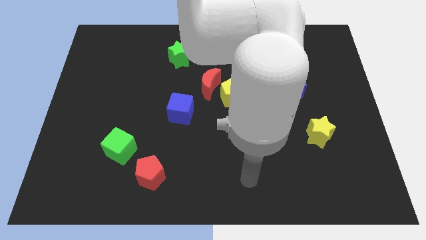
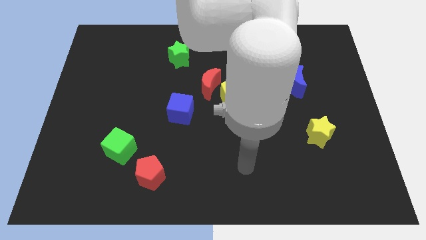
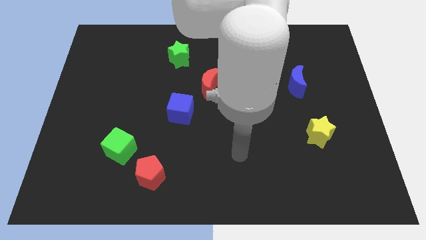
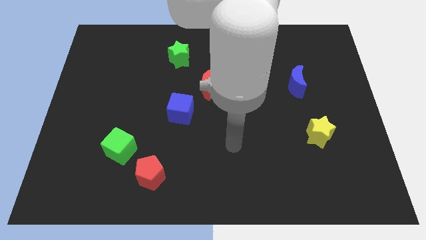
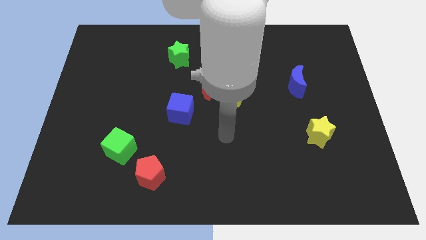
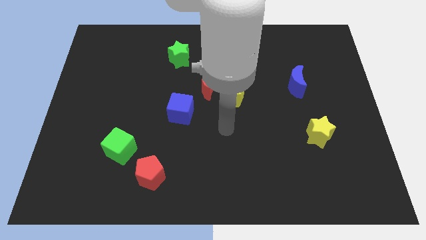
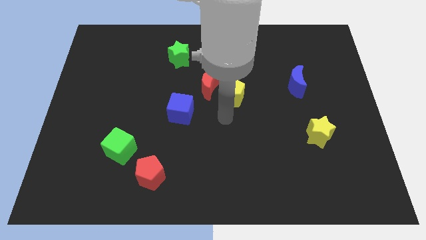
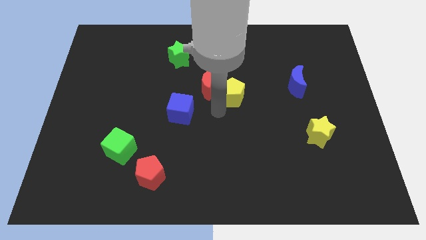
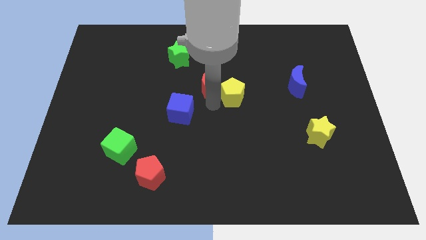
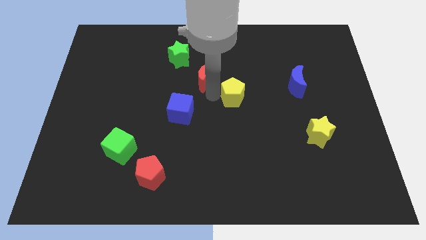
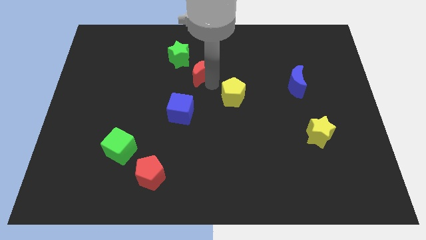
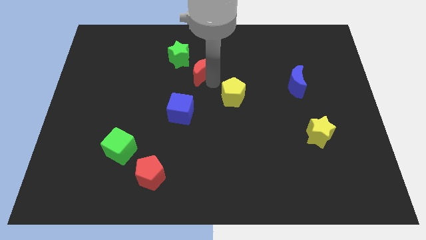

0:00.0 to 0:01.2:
pull the yellow pentagon apart from the red moon

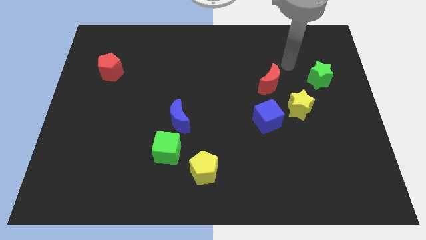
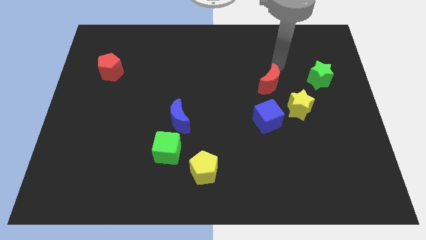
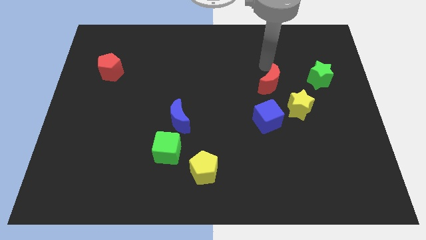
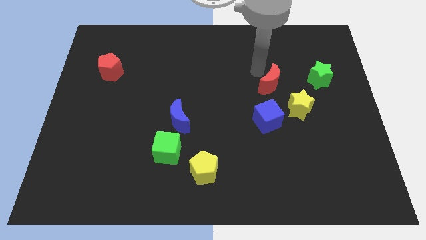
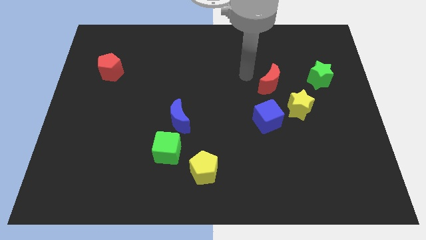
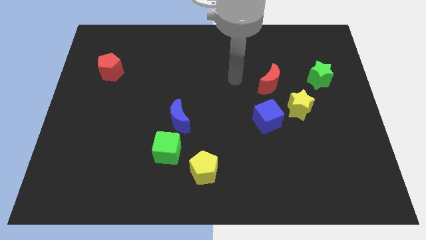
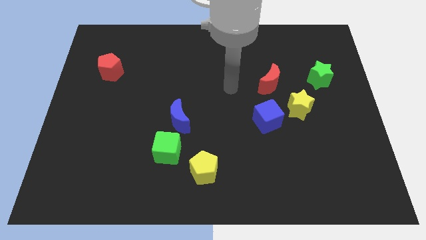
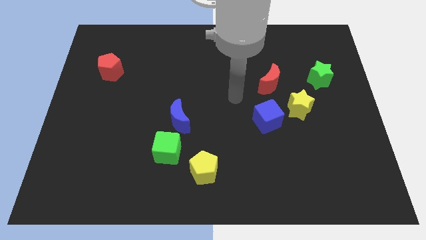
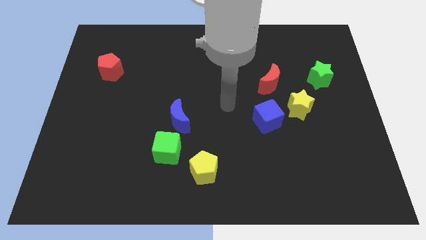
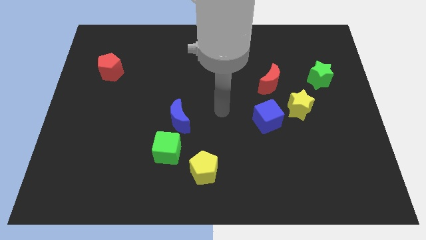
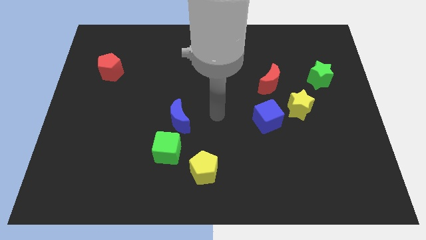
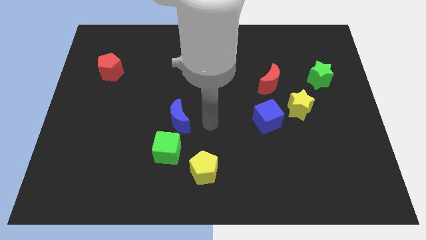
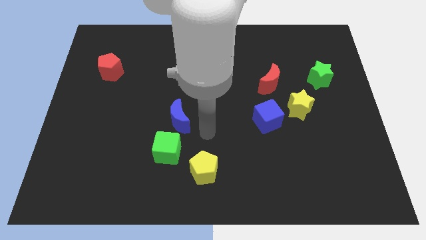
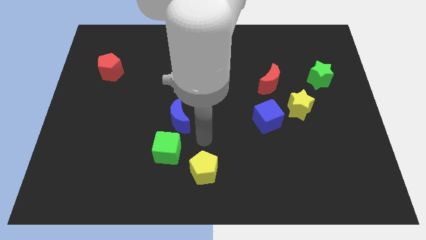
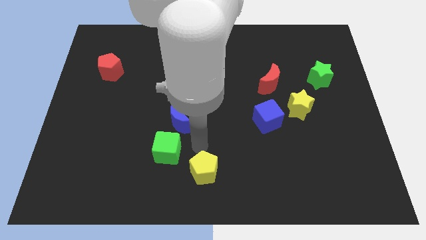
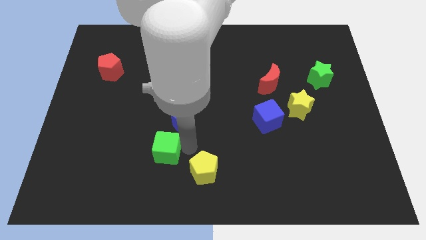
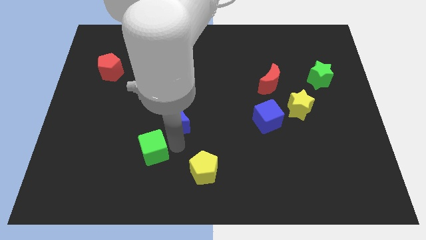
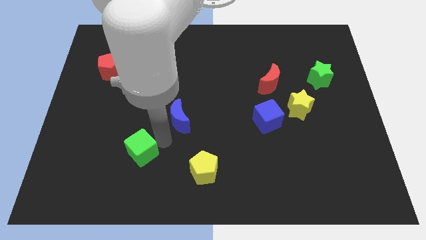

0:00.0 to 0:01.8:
move the blue moon away from the green cube

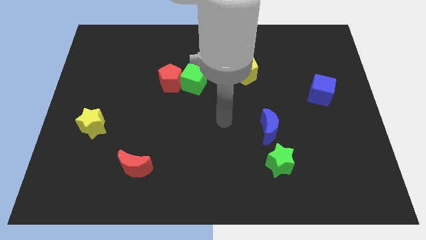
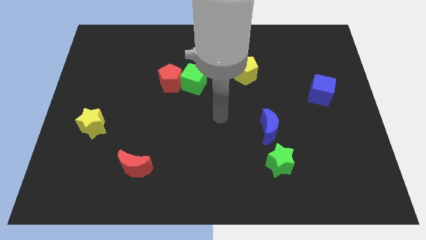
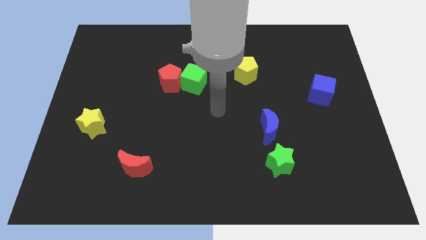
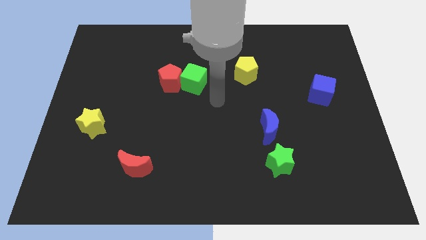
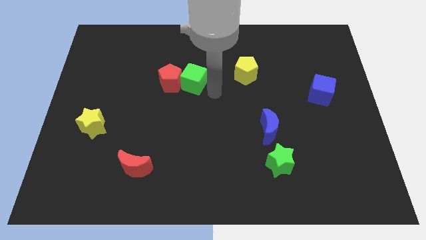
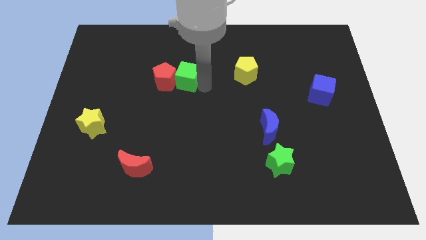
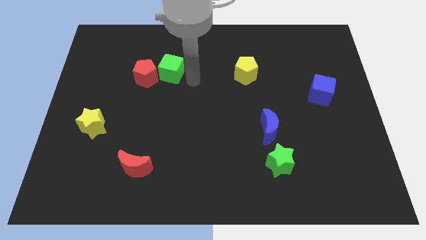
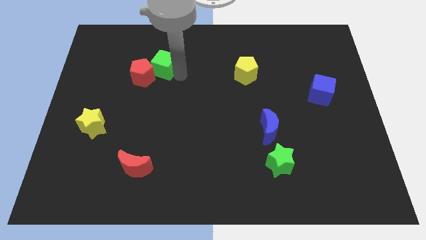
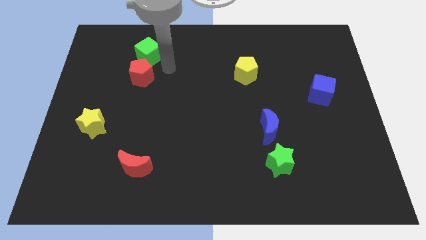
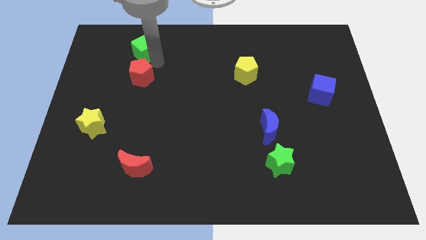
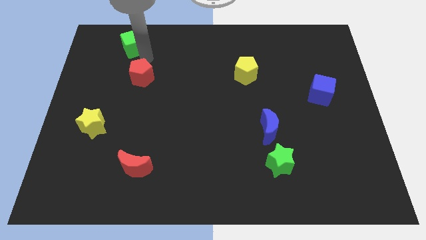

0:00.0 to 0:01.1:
move the red pentagon away from the green cube

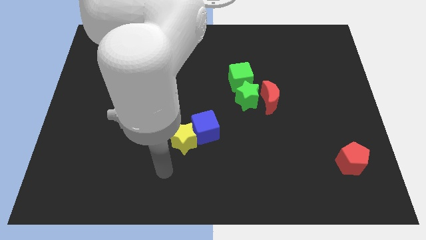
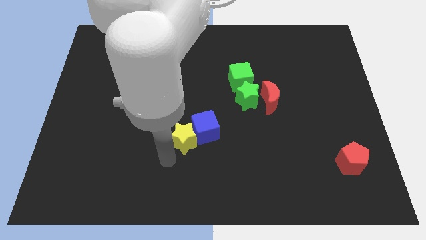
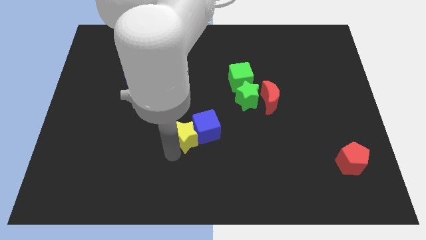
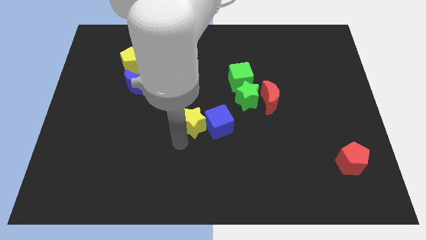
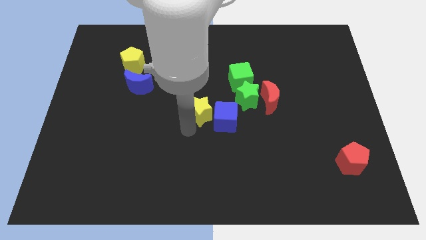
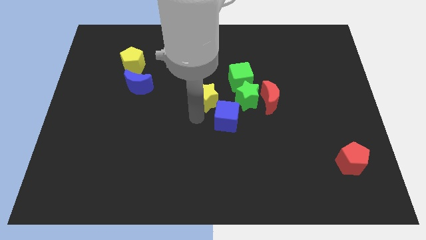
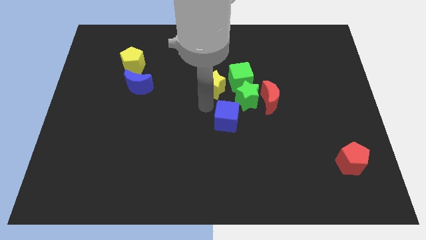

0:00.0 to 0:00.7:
move the blue cube away from the yellow star

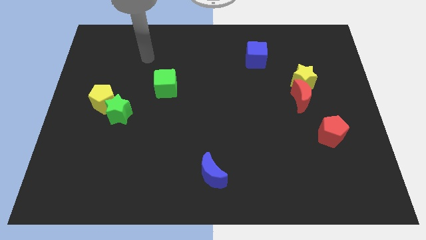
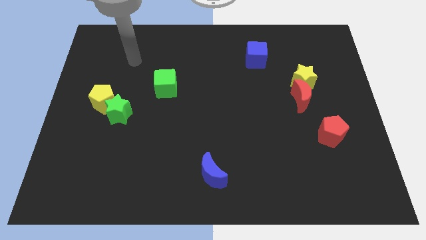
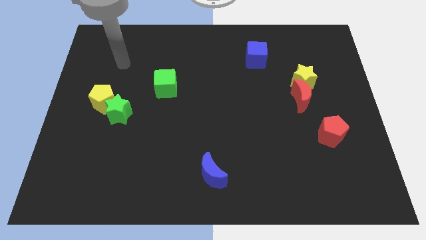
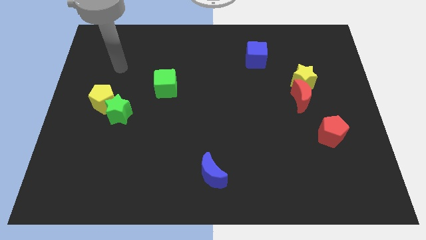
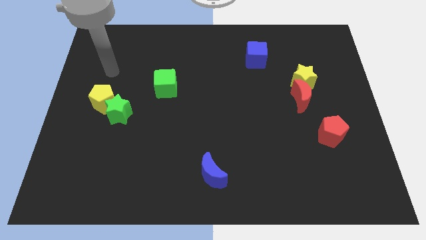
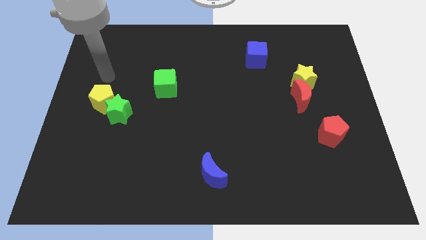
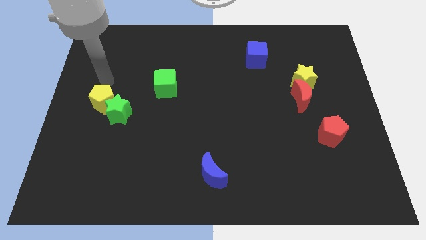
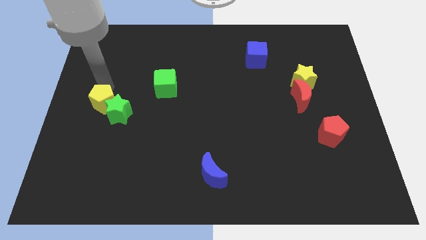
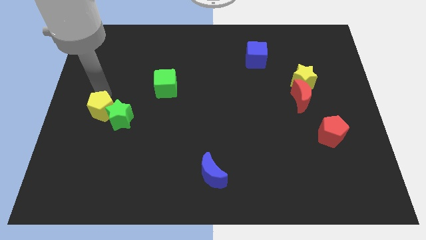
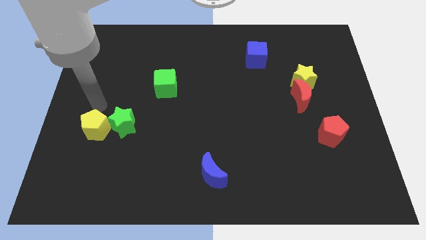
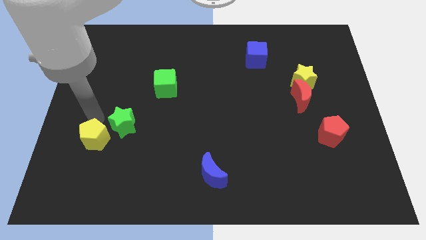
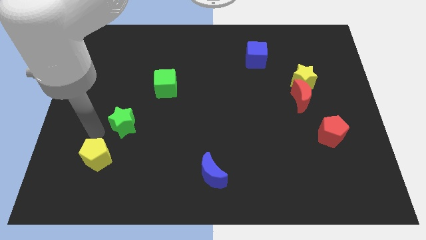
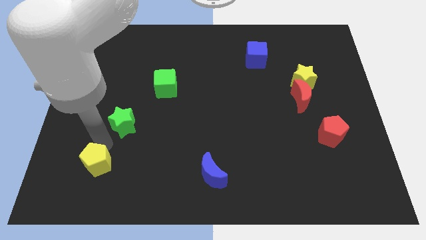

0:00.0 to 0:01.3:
separate the green star from the yellow pentagon

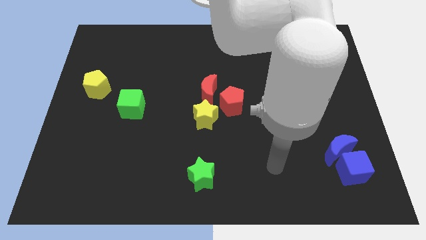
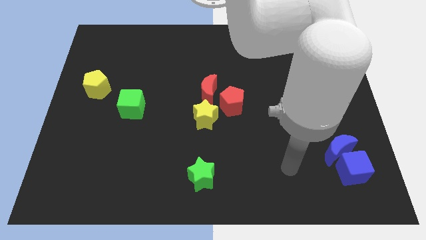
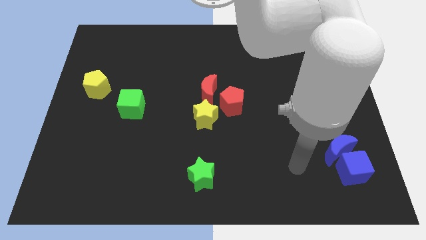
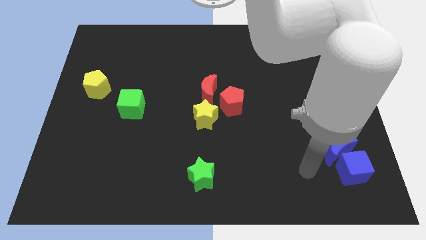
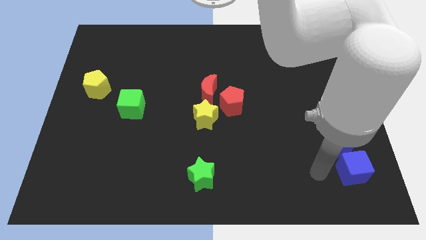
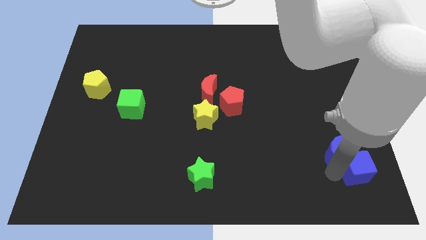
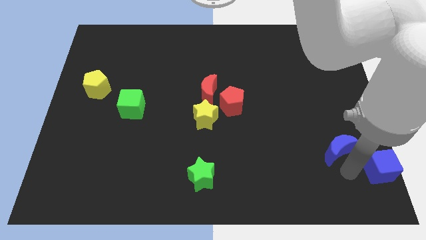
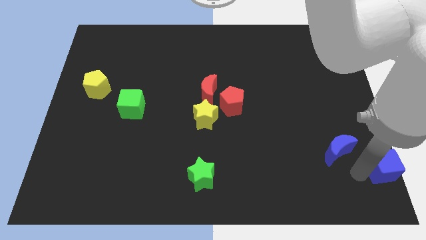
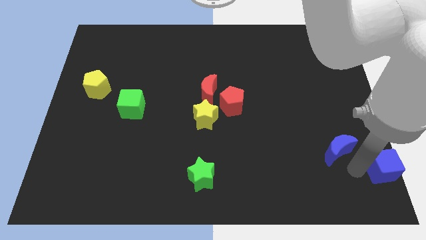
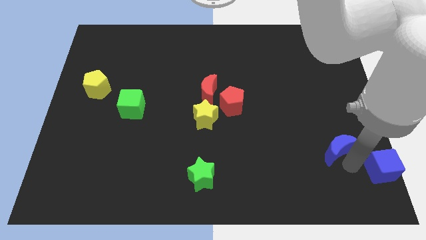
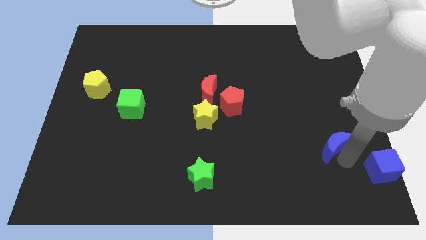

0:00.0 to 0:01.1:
move the blue moon away from the blue cube

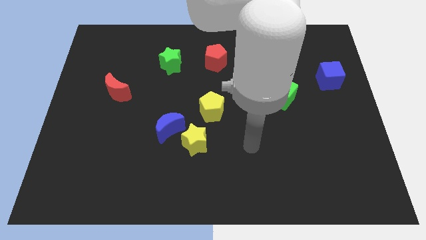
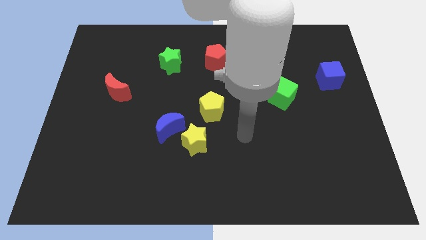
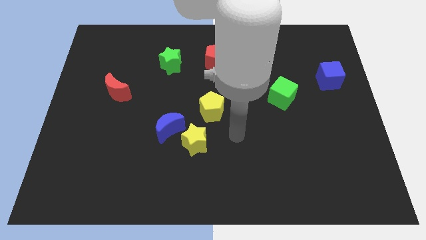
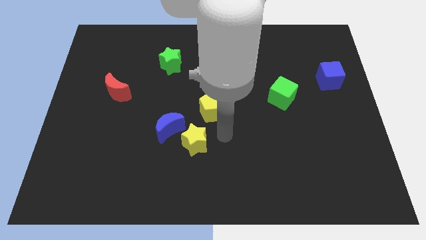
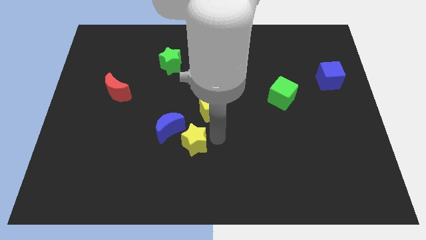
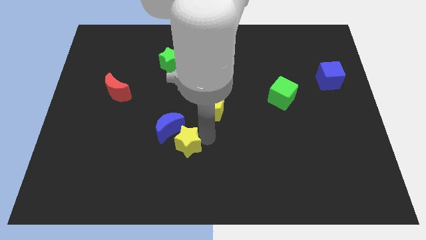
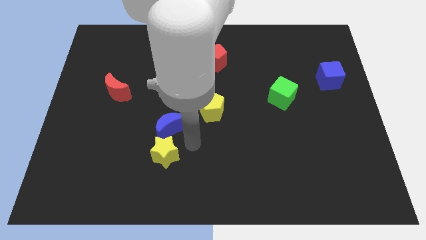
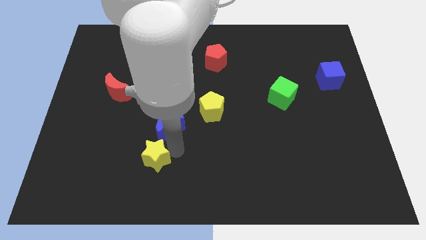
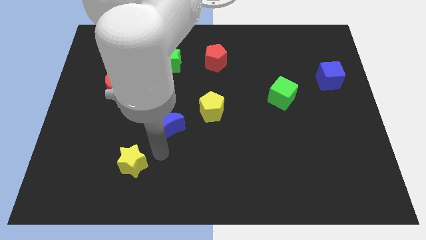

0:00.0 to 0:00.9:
move the blue moon away from the yellow star

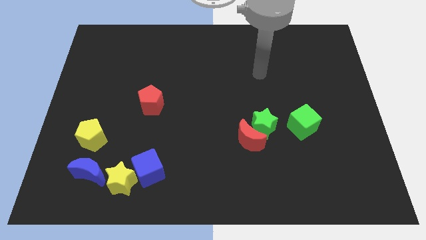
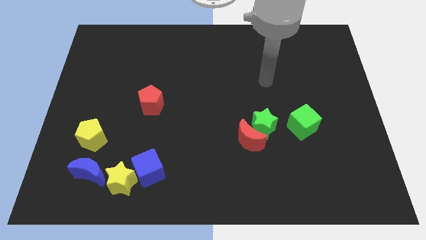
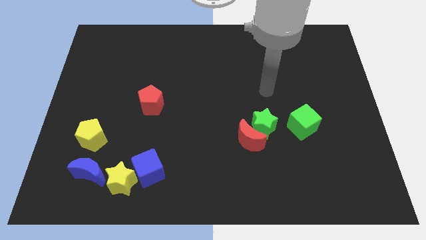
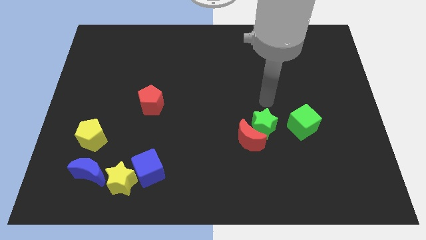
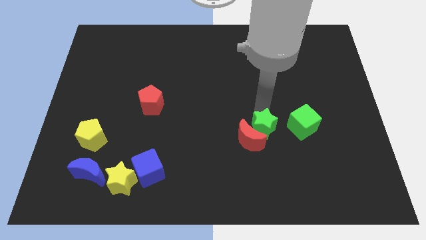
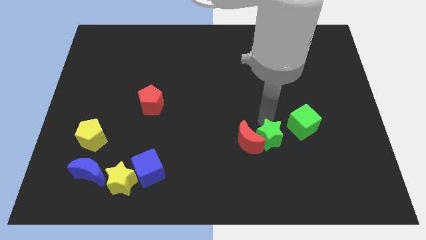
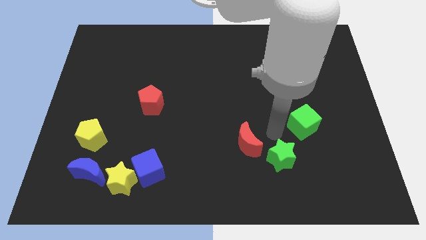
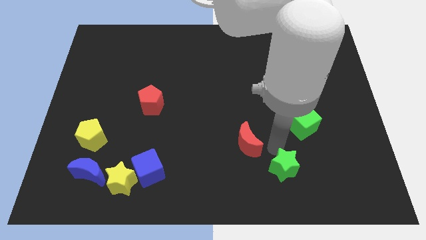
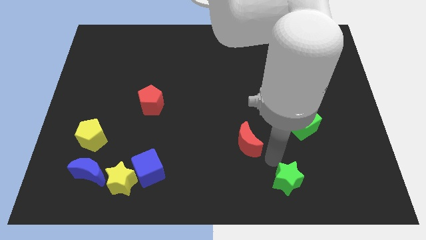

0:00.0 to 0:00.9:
pull the red moon apart from the green star
